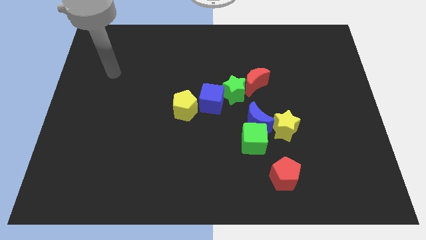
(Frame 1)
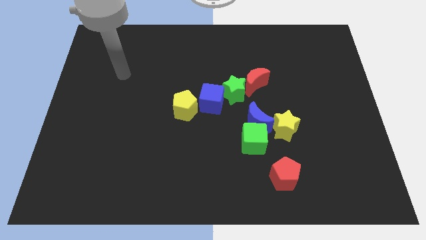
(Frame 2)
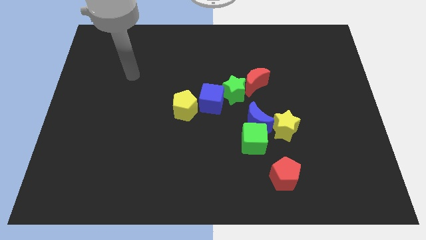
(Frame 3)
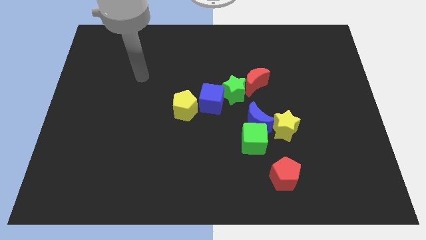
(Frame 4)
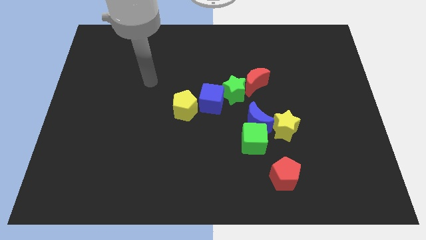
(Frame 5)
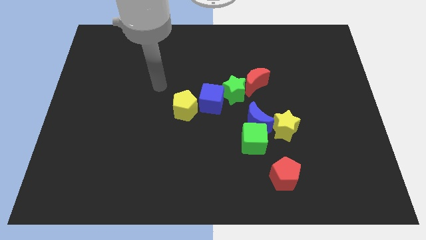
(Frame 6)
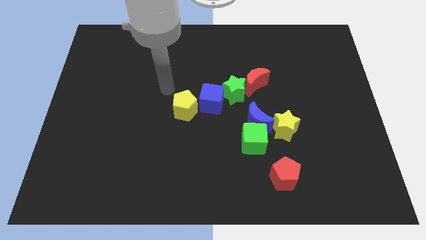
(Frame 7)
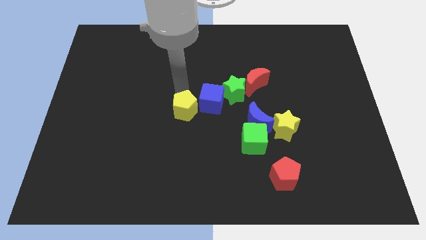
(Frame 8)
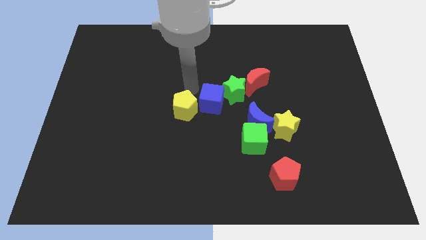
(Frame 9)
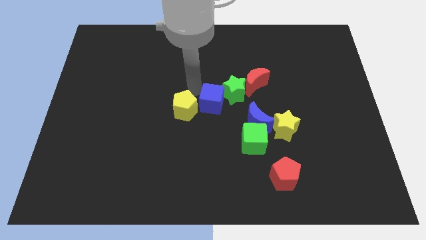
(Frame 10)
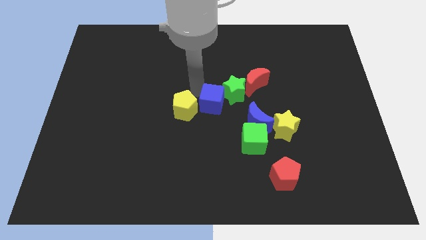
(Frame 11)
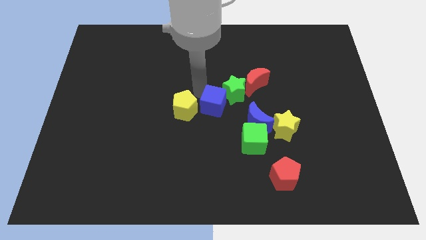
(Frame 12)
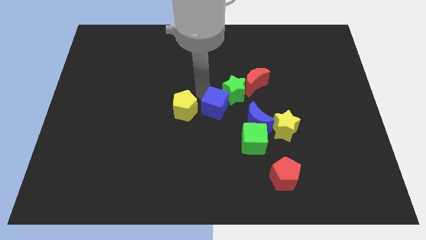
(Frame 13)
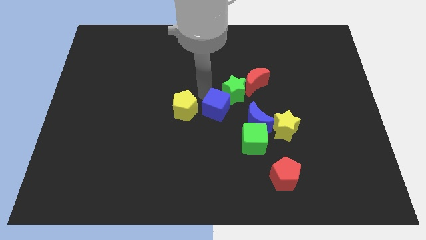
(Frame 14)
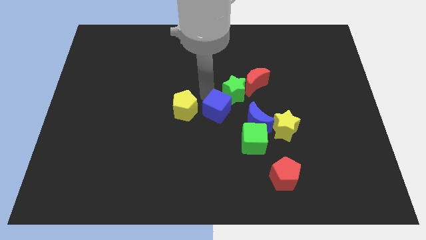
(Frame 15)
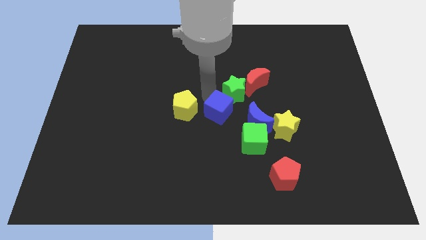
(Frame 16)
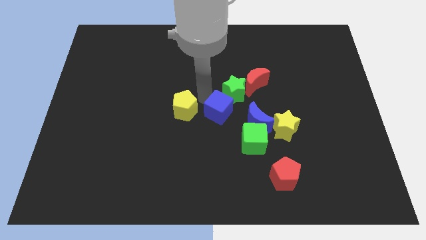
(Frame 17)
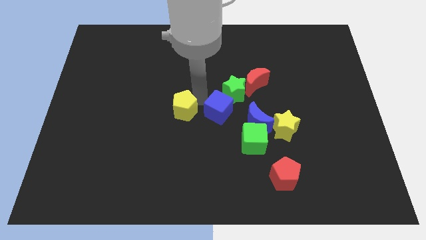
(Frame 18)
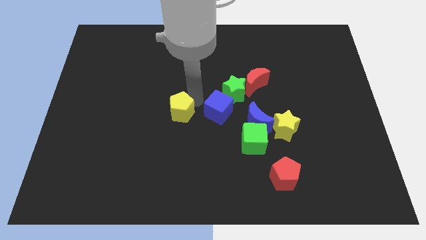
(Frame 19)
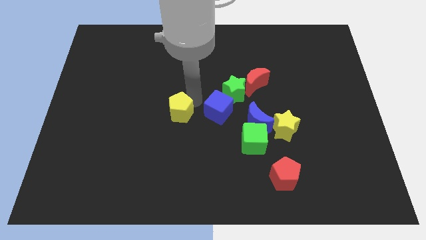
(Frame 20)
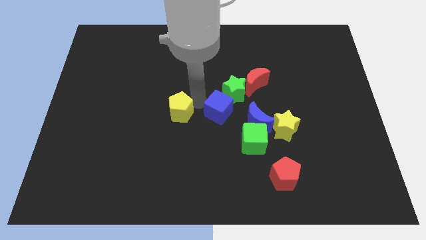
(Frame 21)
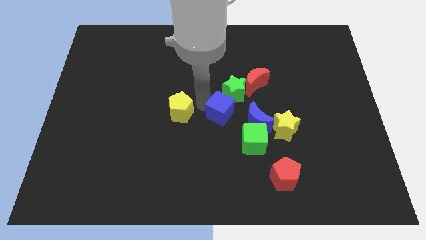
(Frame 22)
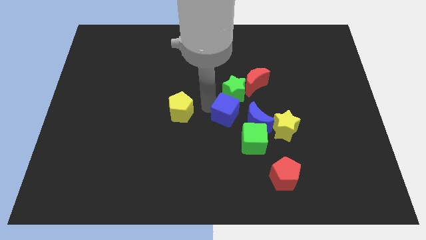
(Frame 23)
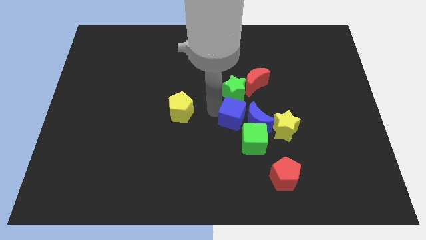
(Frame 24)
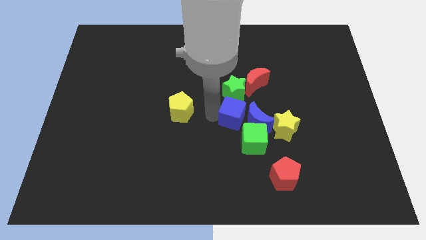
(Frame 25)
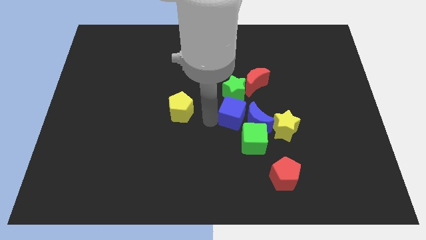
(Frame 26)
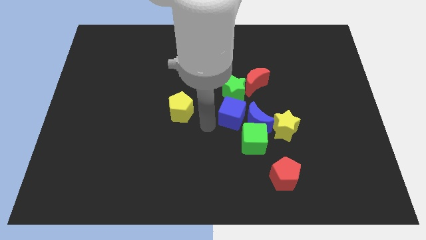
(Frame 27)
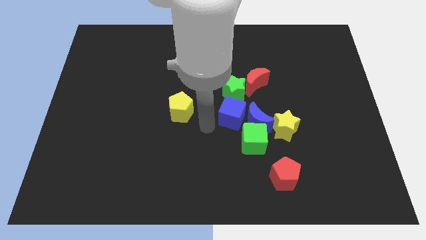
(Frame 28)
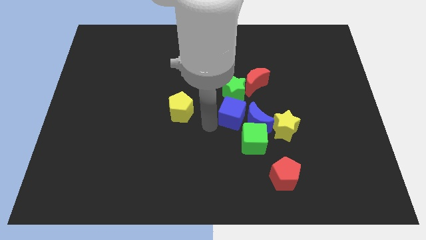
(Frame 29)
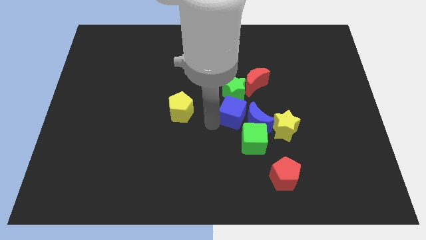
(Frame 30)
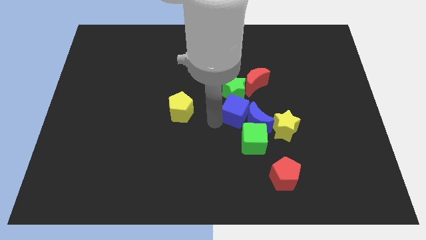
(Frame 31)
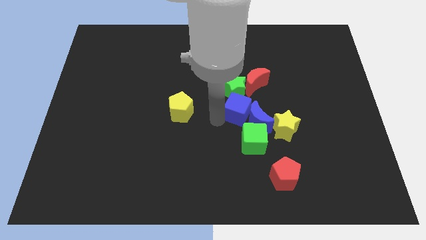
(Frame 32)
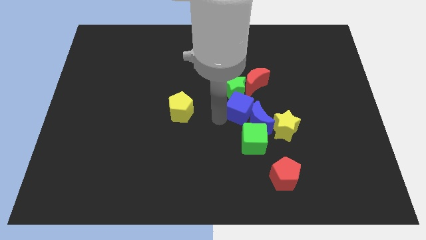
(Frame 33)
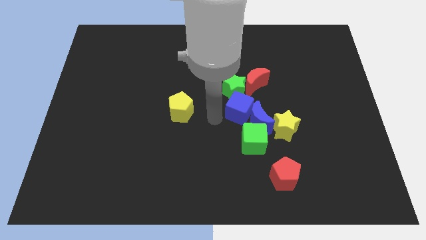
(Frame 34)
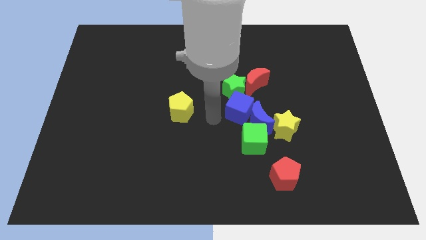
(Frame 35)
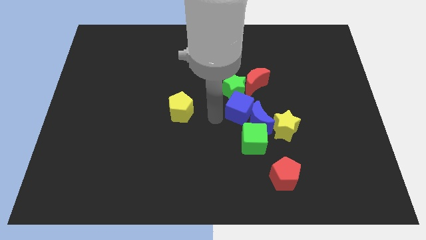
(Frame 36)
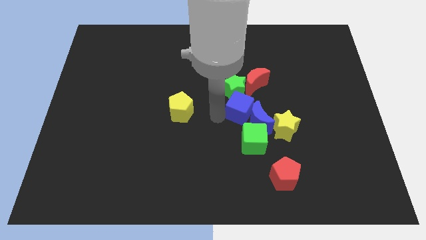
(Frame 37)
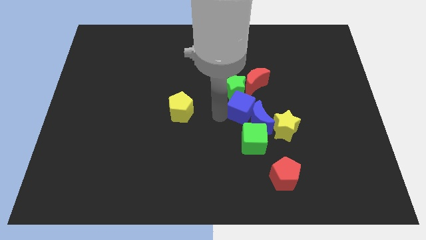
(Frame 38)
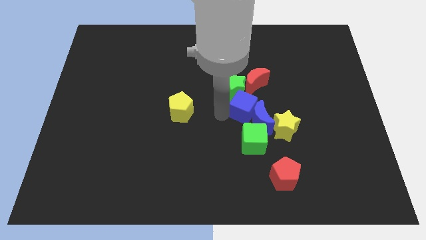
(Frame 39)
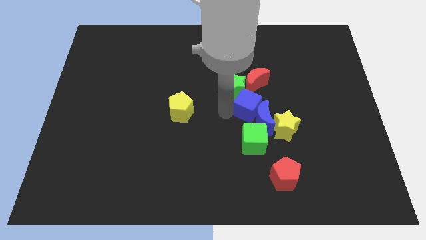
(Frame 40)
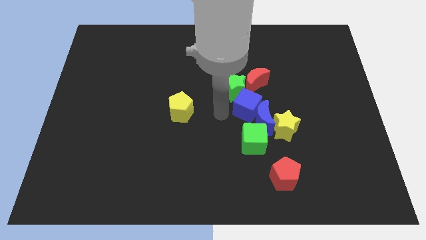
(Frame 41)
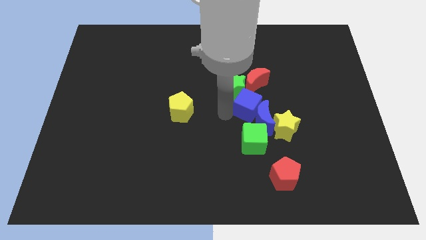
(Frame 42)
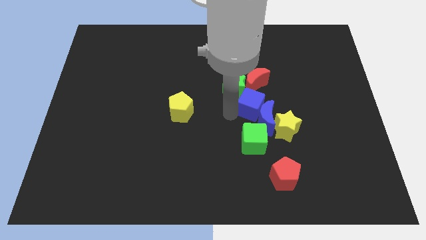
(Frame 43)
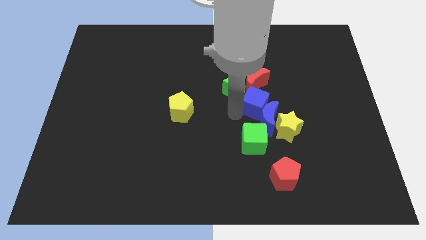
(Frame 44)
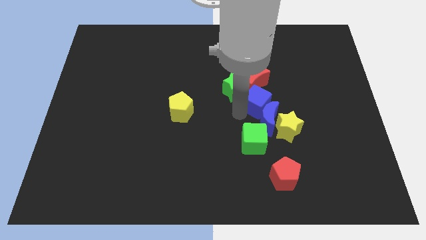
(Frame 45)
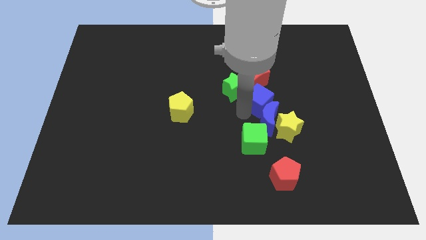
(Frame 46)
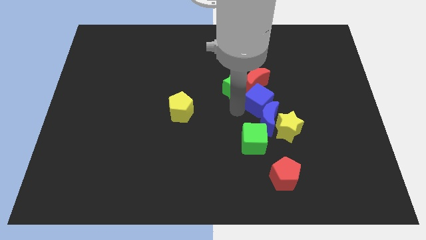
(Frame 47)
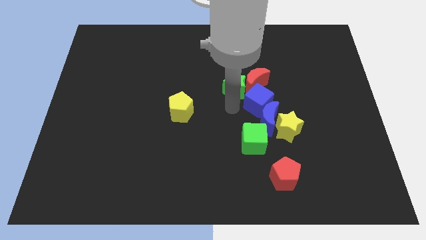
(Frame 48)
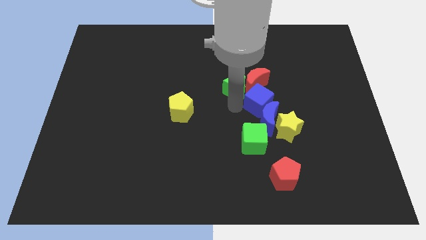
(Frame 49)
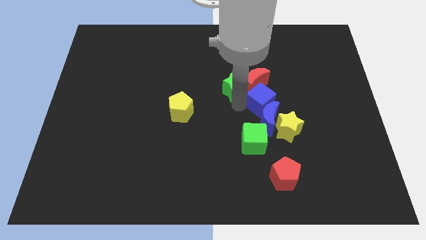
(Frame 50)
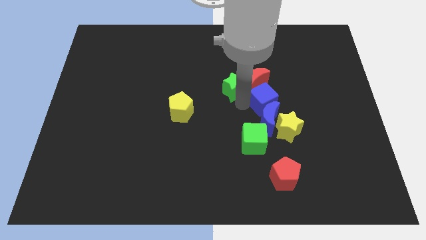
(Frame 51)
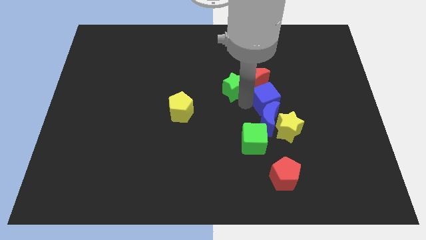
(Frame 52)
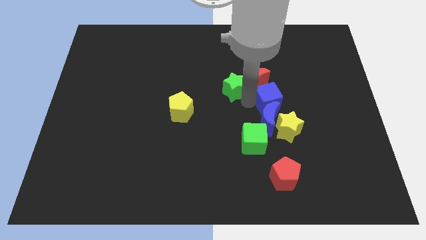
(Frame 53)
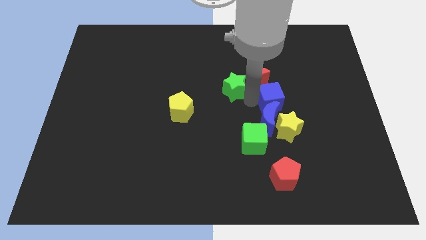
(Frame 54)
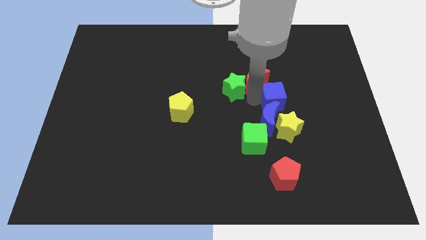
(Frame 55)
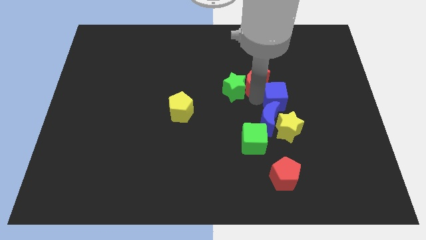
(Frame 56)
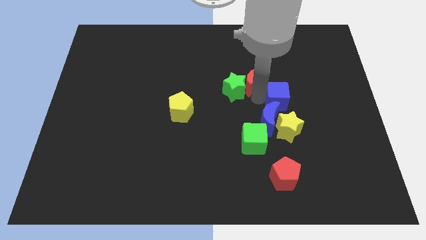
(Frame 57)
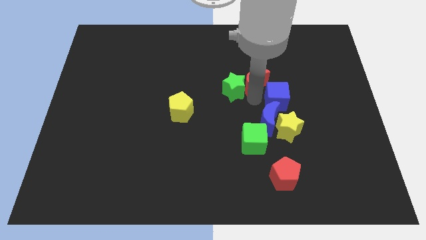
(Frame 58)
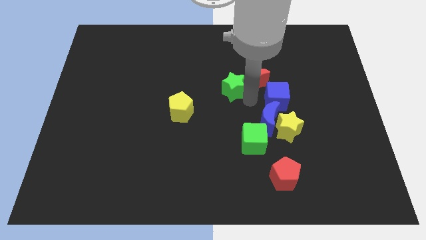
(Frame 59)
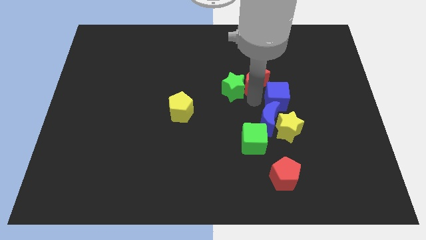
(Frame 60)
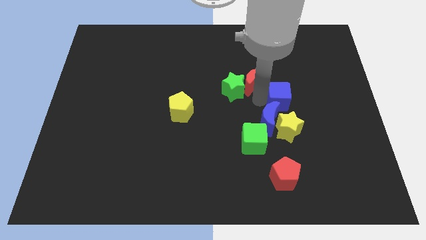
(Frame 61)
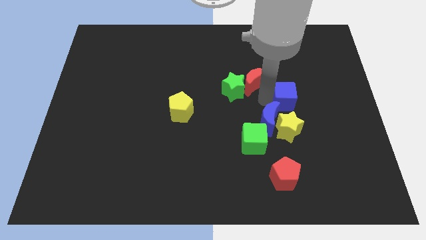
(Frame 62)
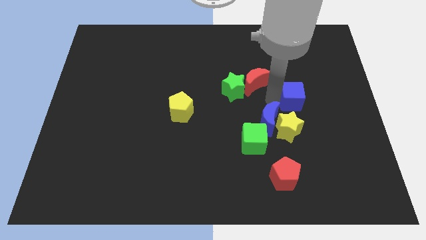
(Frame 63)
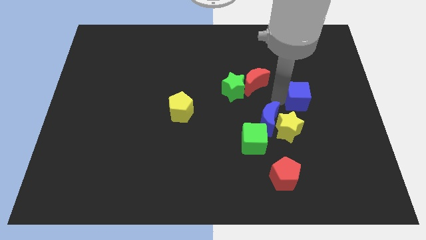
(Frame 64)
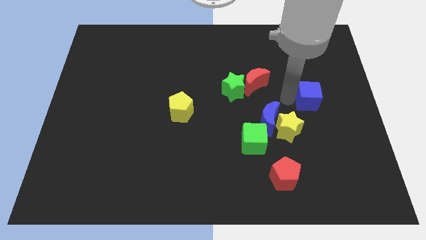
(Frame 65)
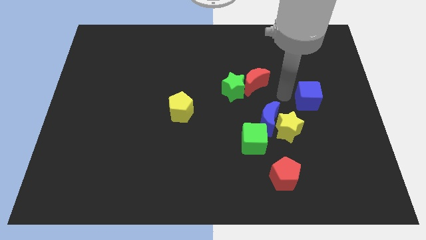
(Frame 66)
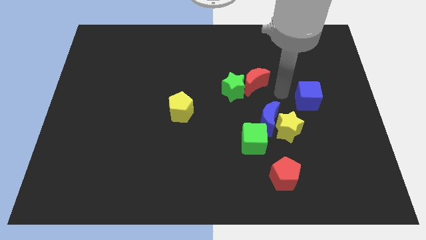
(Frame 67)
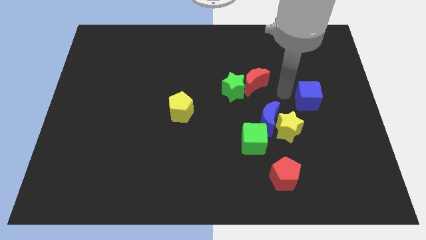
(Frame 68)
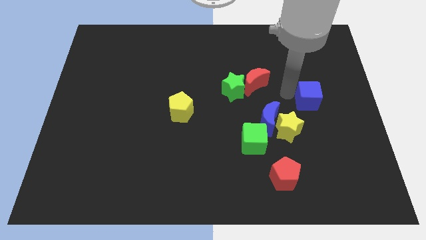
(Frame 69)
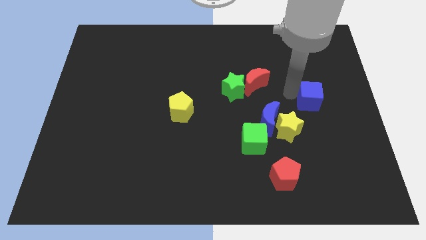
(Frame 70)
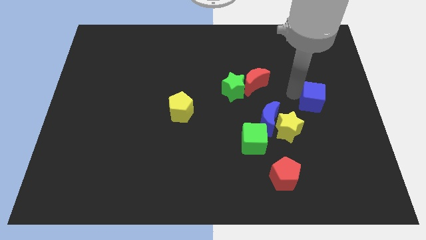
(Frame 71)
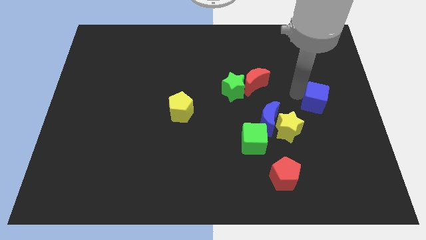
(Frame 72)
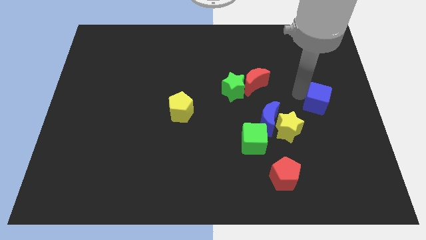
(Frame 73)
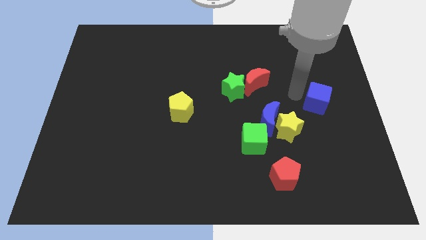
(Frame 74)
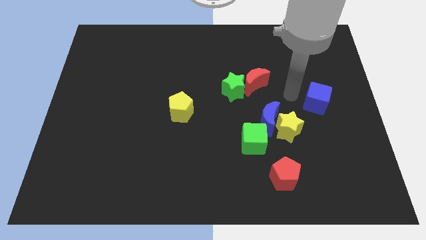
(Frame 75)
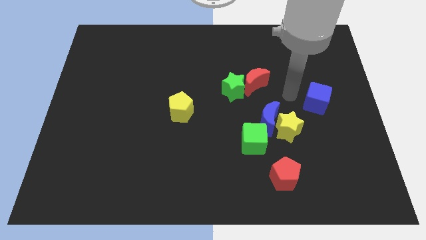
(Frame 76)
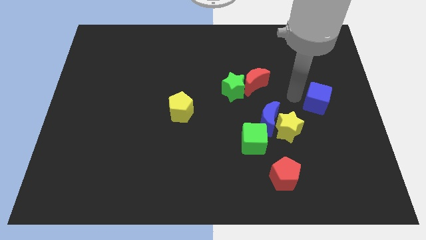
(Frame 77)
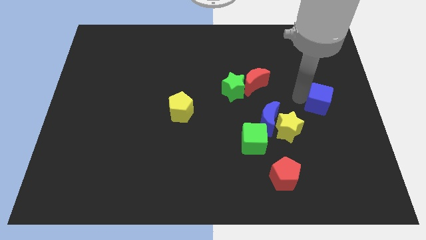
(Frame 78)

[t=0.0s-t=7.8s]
push the blue cube to the center right
